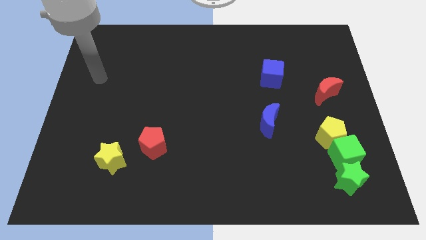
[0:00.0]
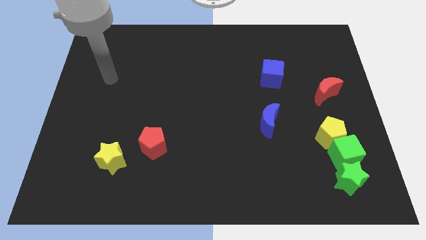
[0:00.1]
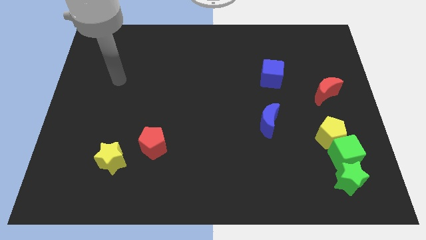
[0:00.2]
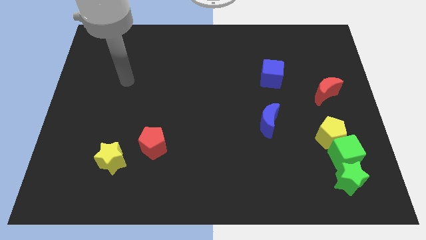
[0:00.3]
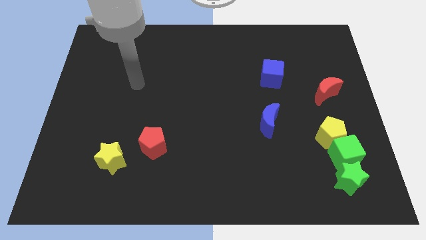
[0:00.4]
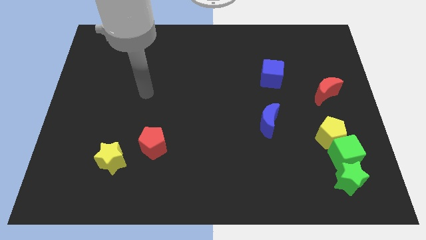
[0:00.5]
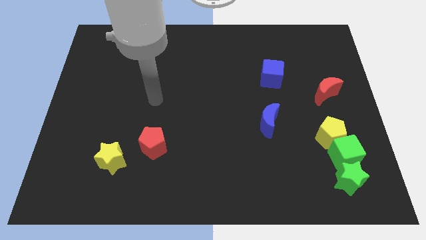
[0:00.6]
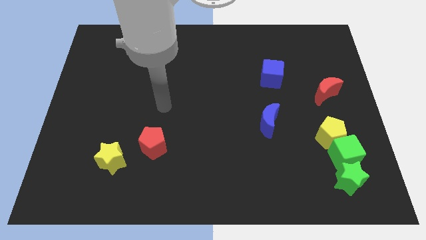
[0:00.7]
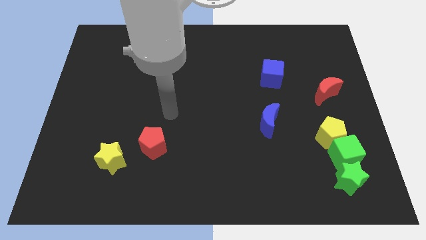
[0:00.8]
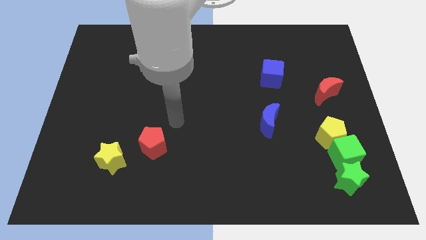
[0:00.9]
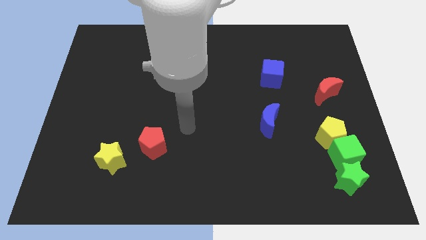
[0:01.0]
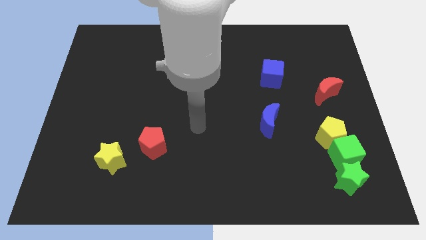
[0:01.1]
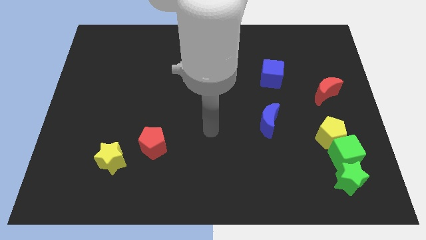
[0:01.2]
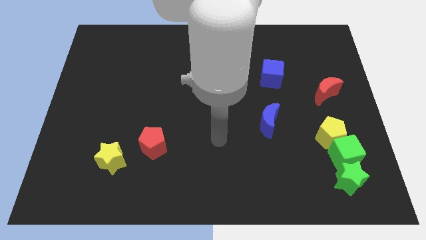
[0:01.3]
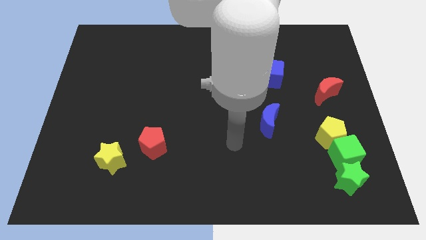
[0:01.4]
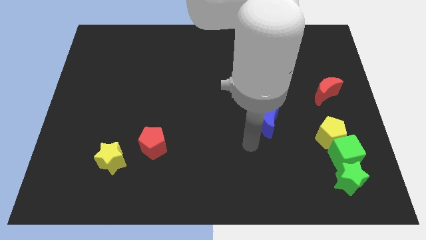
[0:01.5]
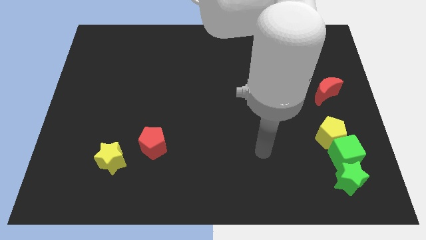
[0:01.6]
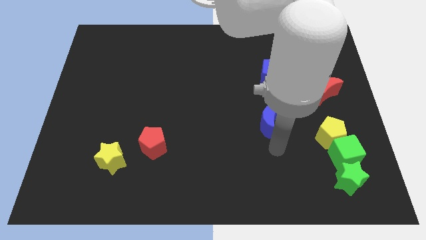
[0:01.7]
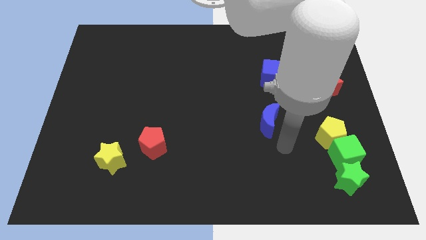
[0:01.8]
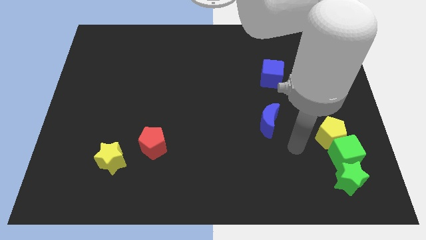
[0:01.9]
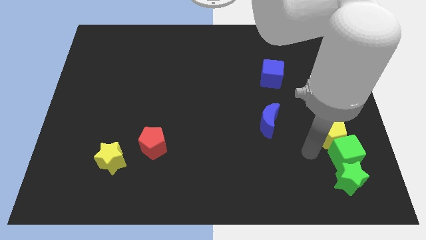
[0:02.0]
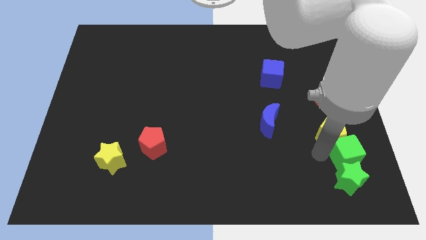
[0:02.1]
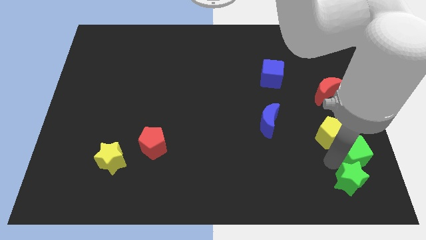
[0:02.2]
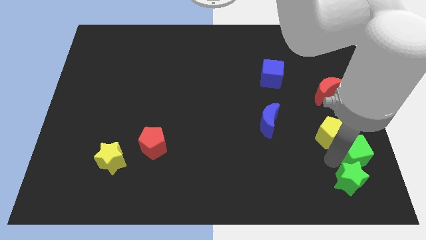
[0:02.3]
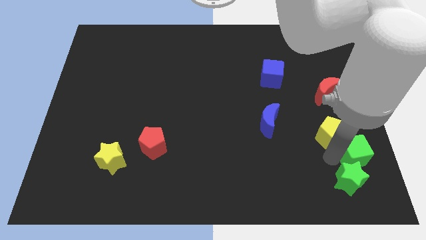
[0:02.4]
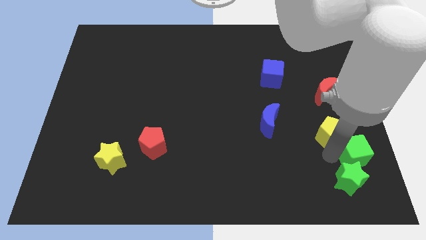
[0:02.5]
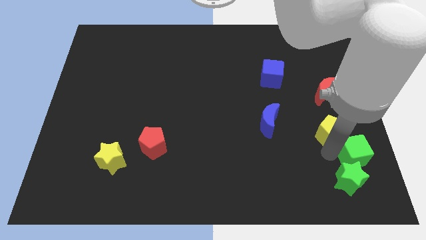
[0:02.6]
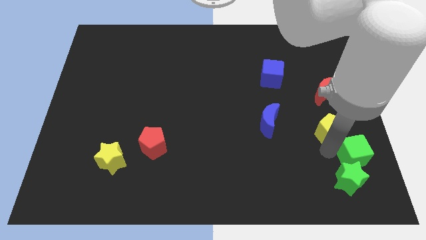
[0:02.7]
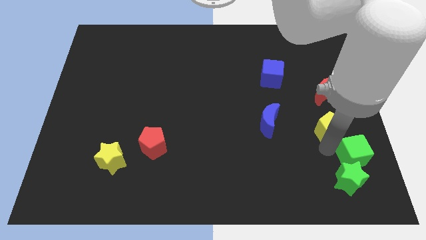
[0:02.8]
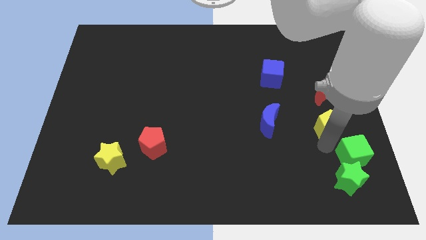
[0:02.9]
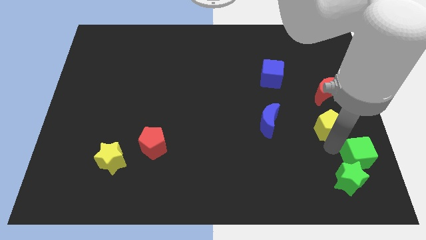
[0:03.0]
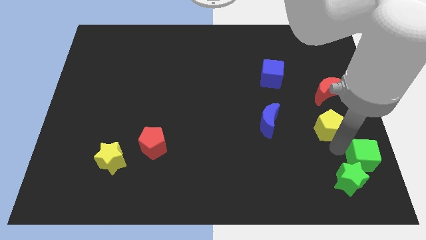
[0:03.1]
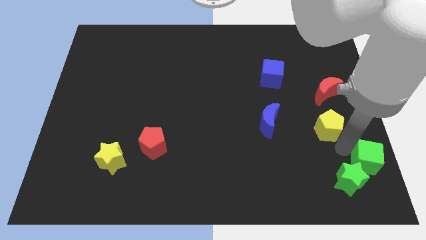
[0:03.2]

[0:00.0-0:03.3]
pull the yellow pentagon apart from the green cube

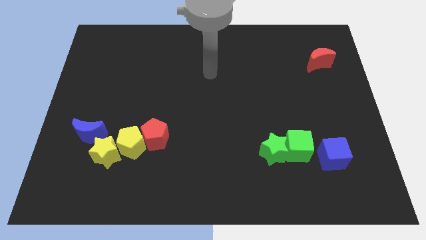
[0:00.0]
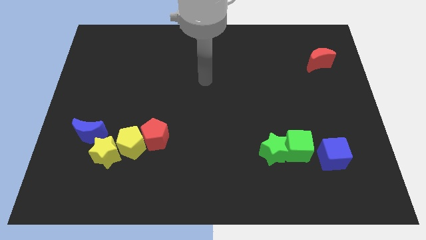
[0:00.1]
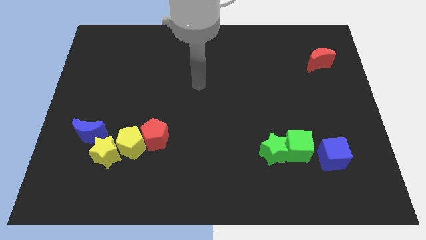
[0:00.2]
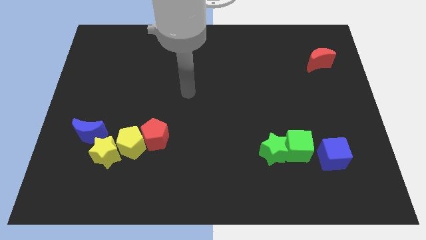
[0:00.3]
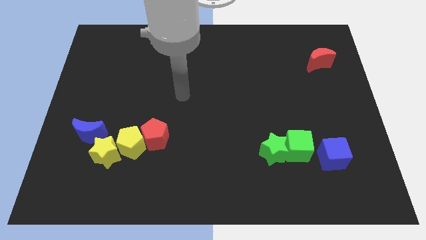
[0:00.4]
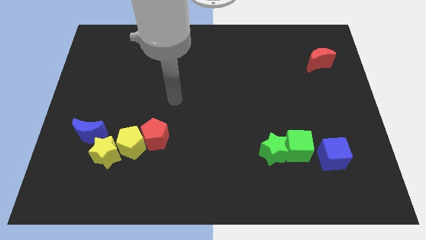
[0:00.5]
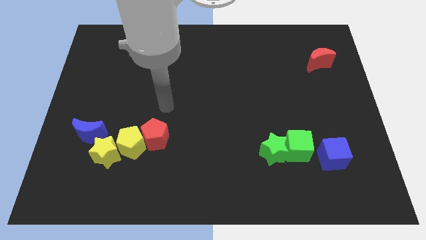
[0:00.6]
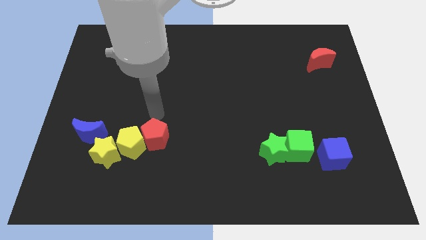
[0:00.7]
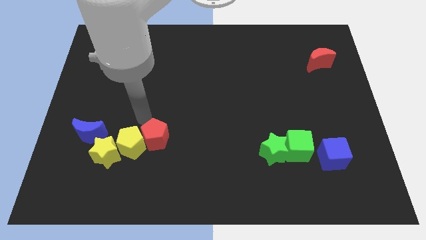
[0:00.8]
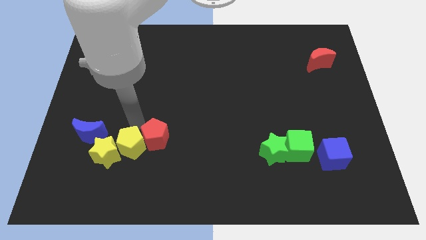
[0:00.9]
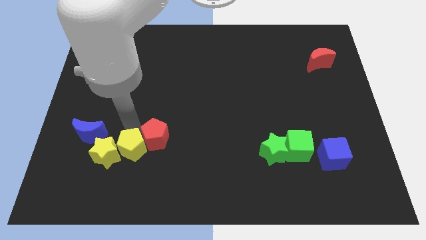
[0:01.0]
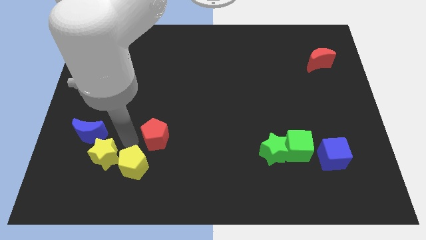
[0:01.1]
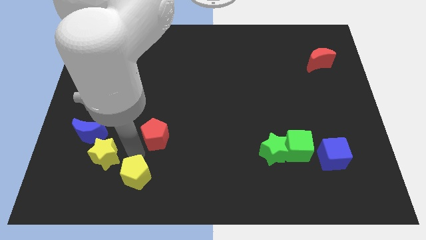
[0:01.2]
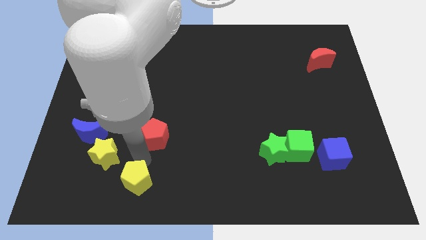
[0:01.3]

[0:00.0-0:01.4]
pull the red pentagon apart from the yellow pentagon

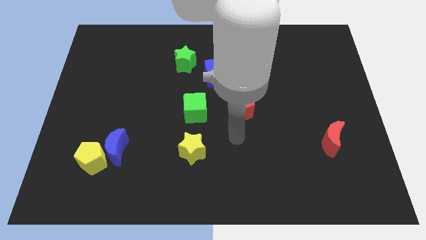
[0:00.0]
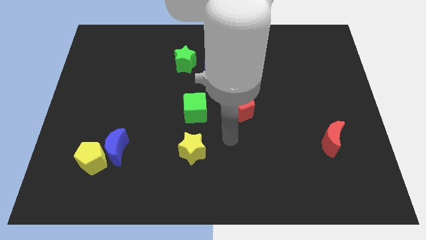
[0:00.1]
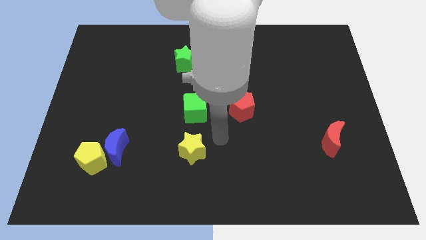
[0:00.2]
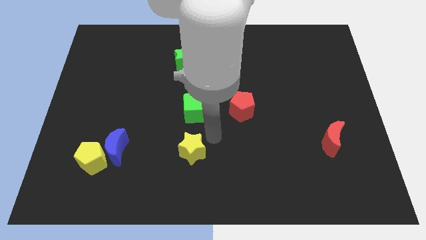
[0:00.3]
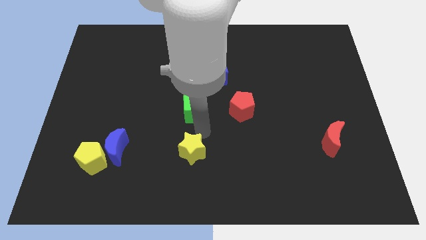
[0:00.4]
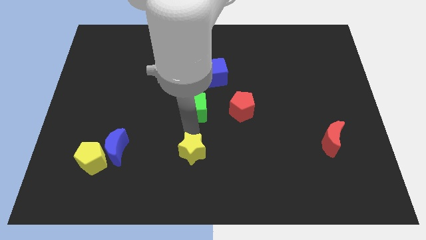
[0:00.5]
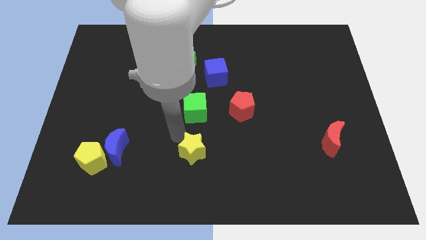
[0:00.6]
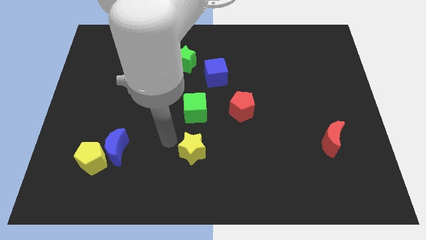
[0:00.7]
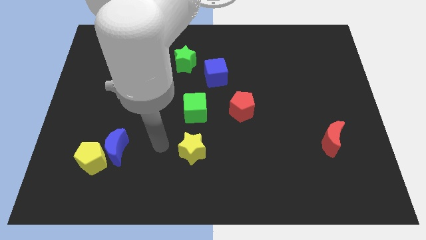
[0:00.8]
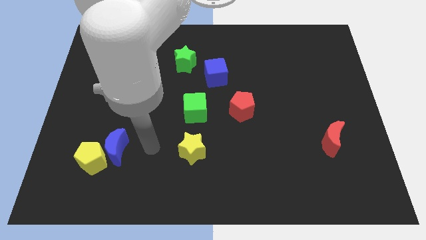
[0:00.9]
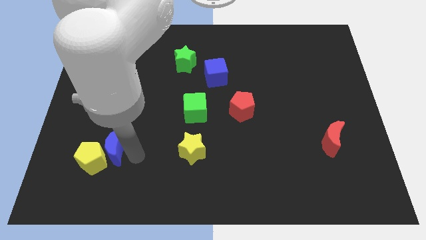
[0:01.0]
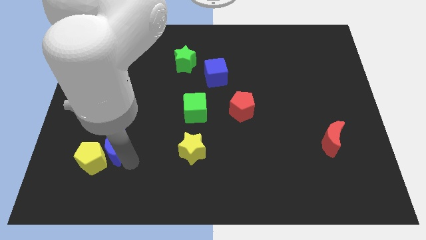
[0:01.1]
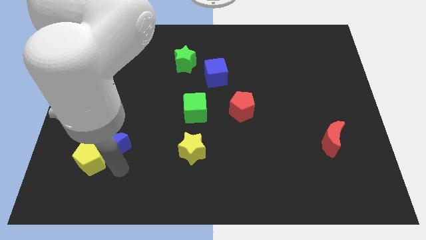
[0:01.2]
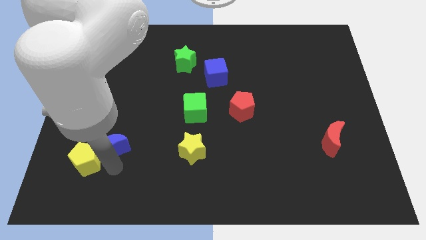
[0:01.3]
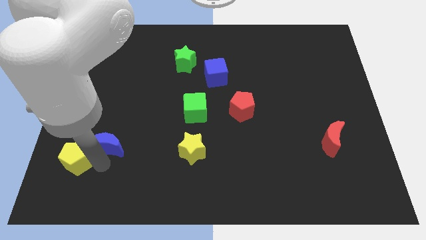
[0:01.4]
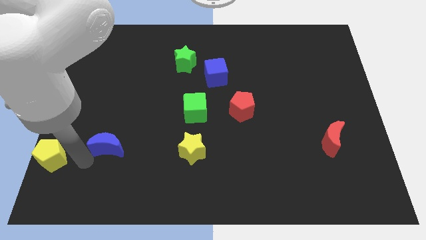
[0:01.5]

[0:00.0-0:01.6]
move the blue moon away from the yellow pentagon

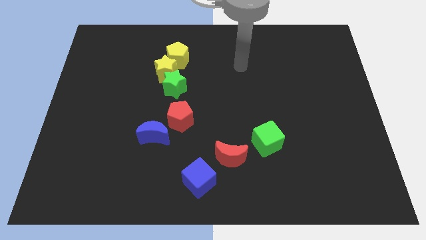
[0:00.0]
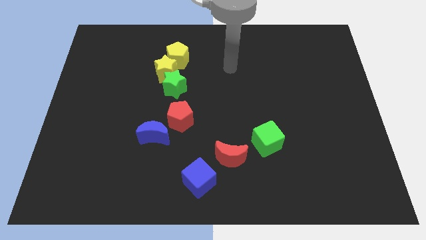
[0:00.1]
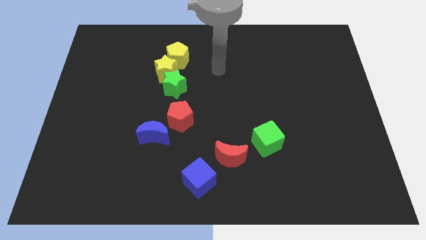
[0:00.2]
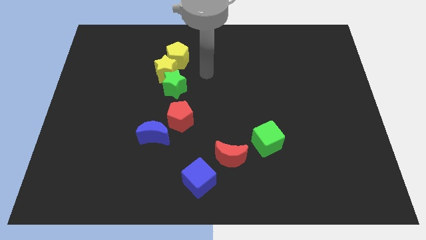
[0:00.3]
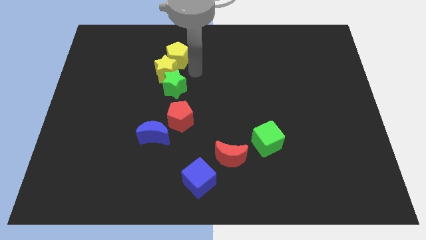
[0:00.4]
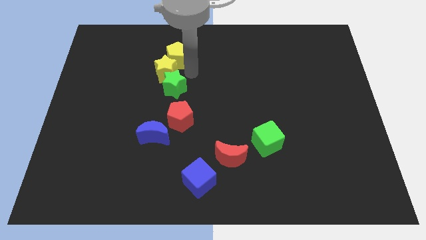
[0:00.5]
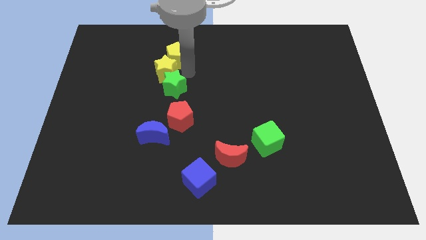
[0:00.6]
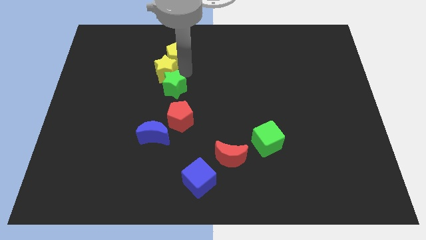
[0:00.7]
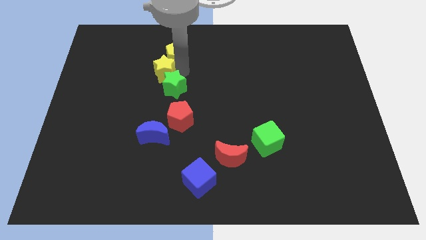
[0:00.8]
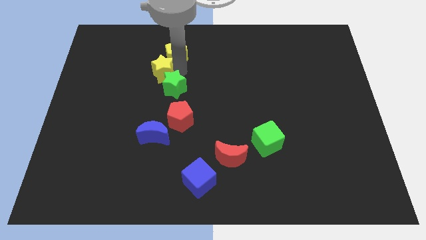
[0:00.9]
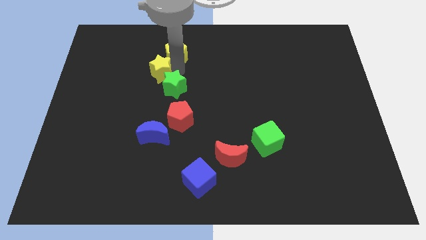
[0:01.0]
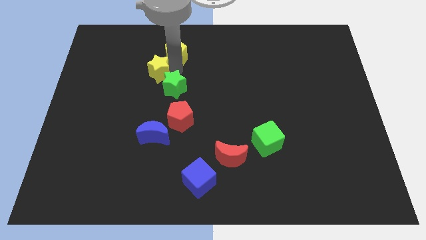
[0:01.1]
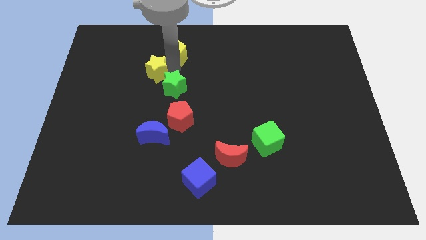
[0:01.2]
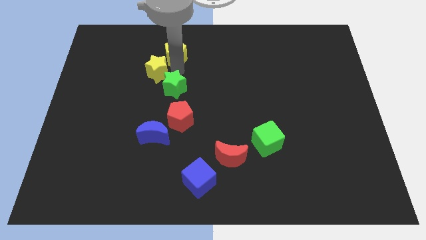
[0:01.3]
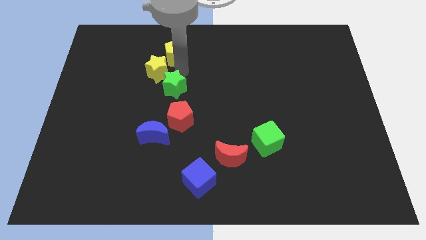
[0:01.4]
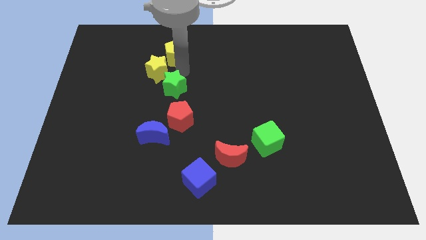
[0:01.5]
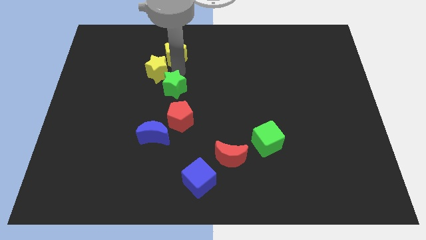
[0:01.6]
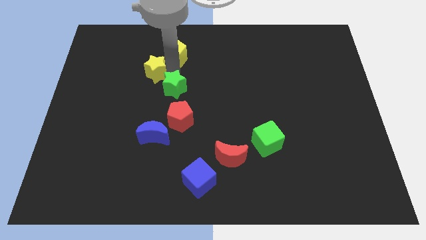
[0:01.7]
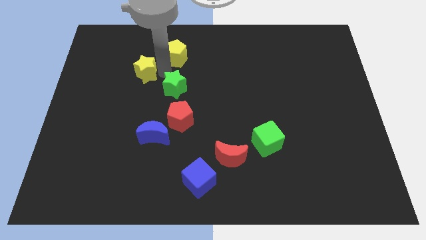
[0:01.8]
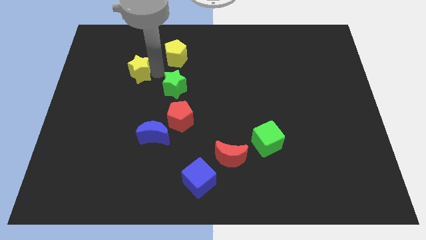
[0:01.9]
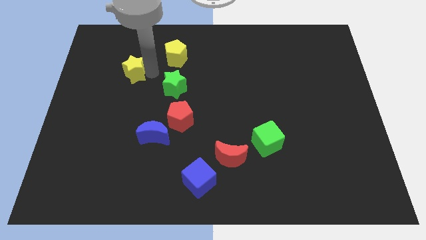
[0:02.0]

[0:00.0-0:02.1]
pull the yellow star apart from the green star and yellow pentagon

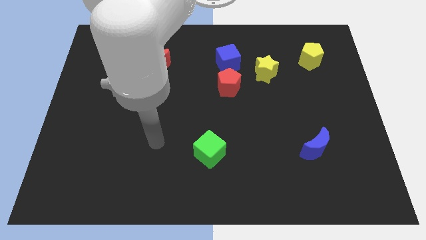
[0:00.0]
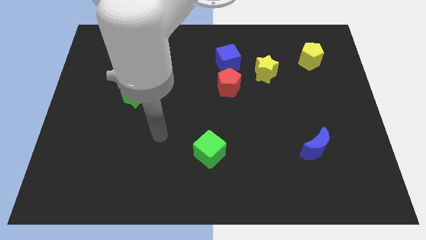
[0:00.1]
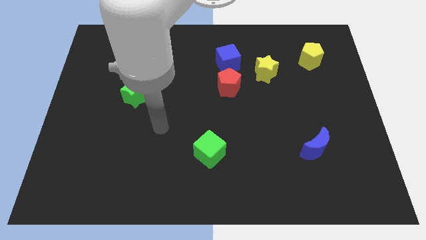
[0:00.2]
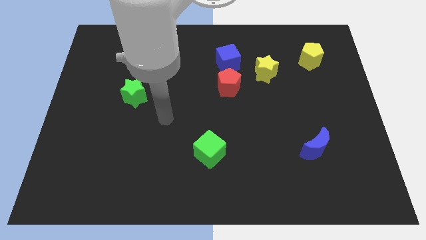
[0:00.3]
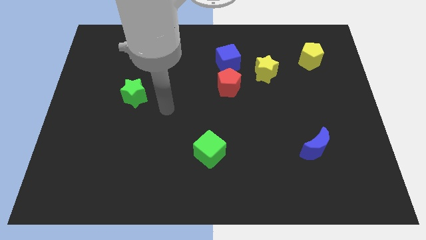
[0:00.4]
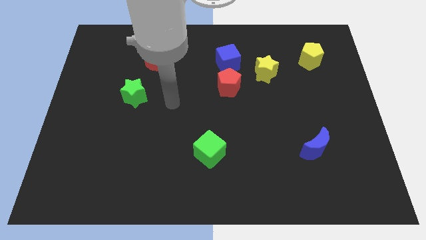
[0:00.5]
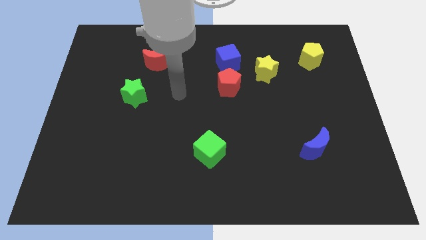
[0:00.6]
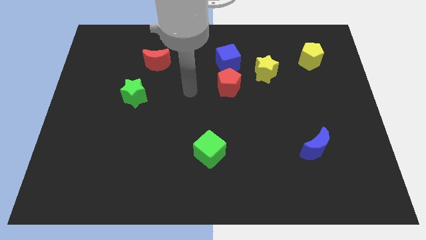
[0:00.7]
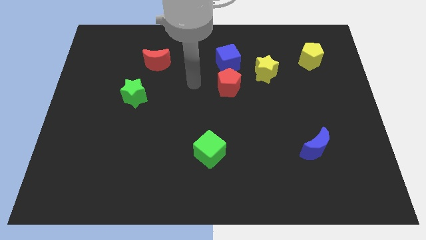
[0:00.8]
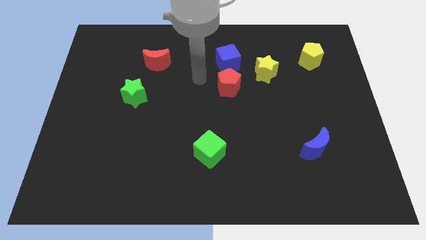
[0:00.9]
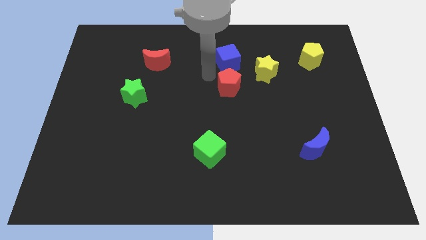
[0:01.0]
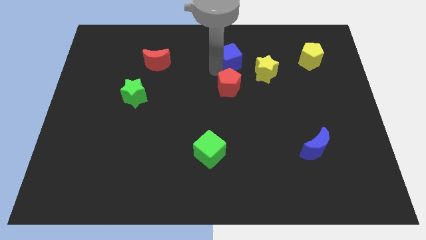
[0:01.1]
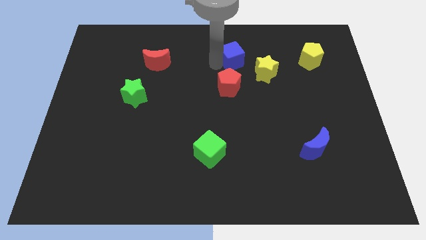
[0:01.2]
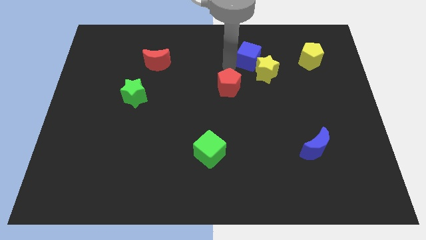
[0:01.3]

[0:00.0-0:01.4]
move the red pentagon away from the blue cube
